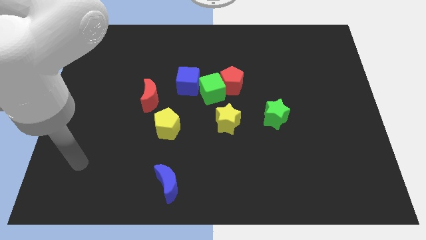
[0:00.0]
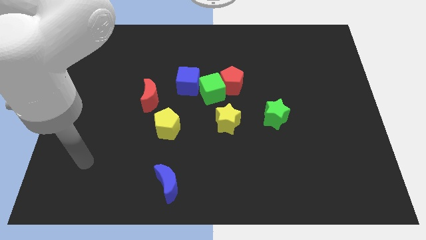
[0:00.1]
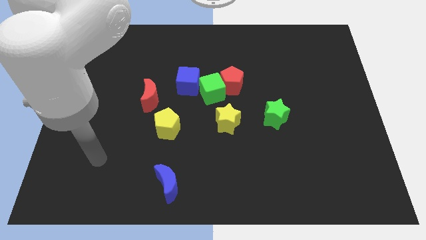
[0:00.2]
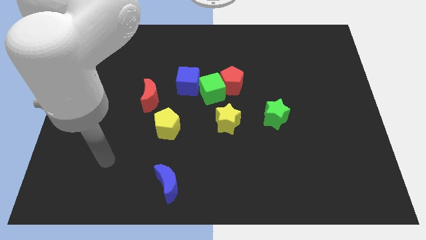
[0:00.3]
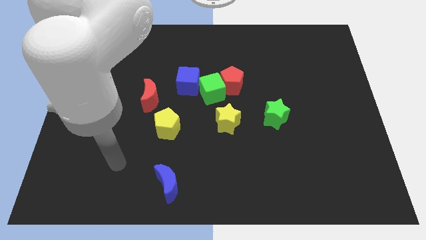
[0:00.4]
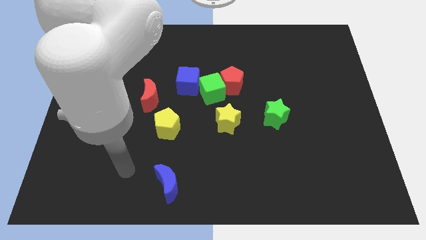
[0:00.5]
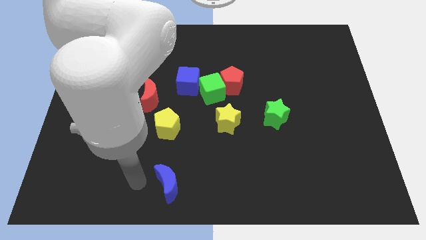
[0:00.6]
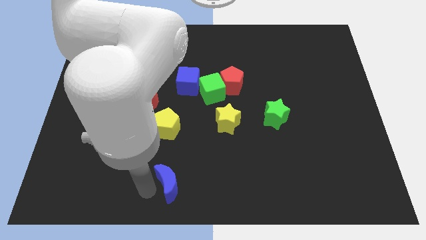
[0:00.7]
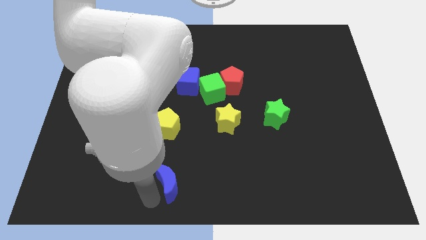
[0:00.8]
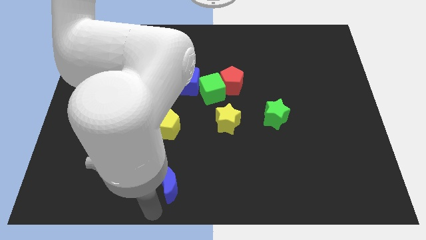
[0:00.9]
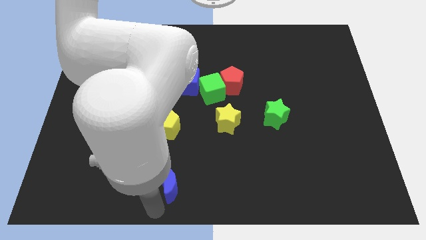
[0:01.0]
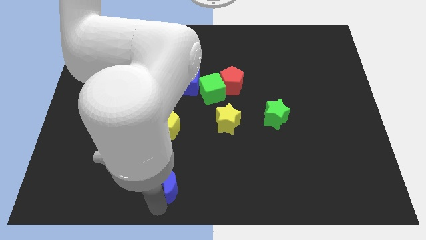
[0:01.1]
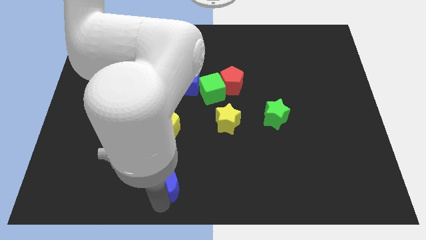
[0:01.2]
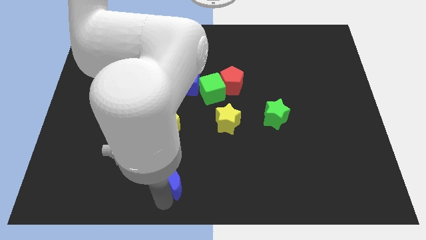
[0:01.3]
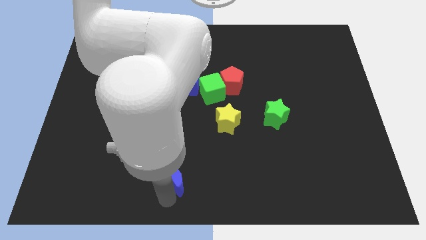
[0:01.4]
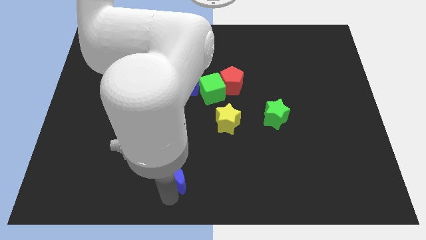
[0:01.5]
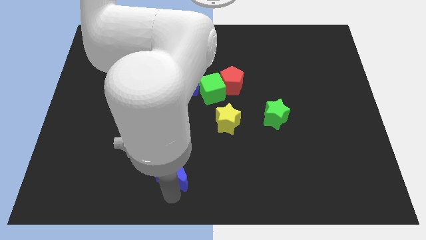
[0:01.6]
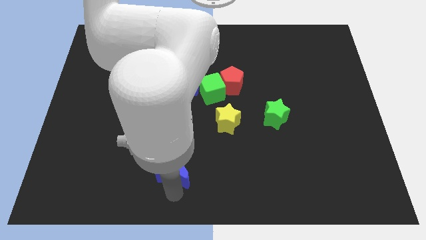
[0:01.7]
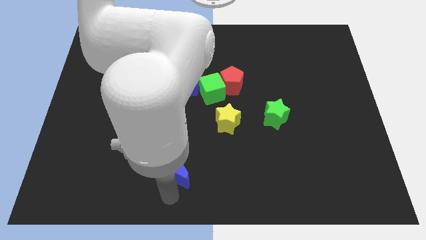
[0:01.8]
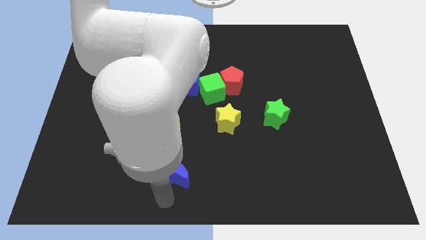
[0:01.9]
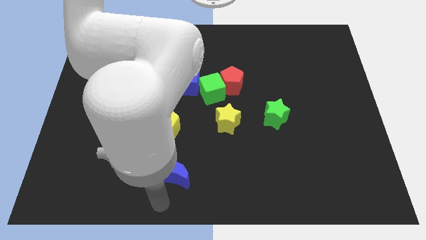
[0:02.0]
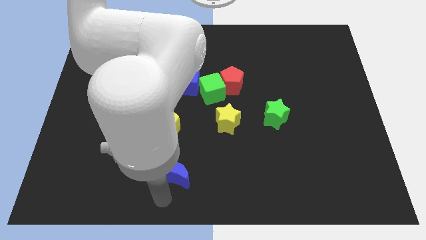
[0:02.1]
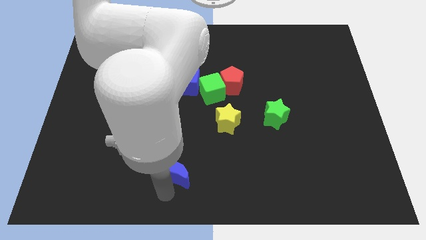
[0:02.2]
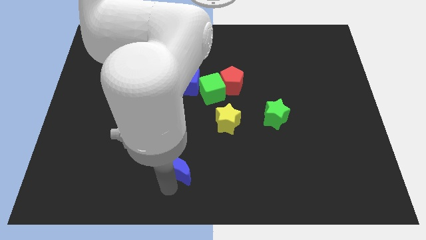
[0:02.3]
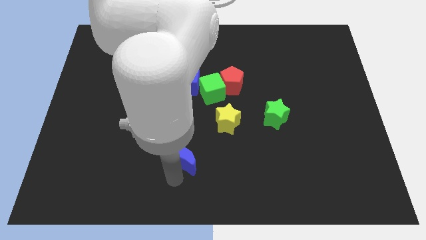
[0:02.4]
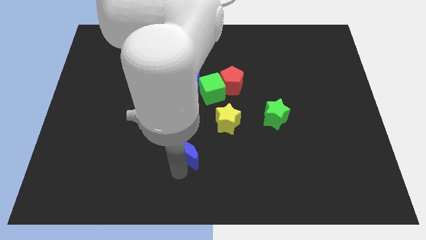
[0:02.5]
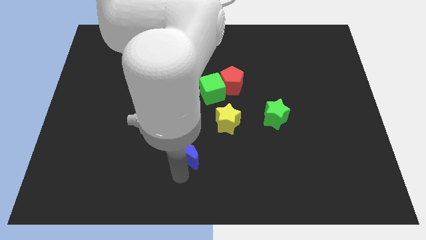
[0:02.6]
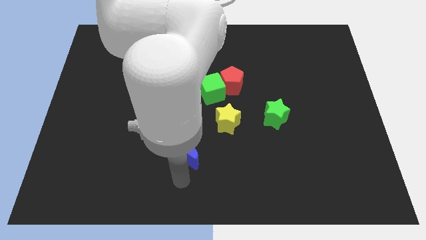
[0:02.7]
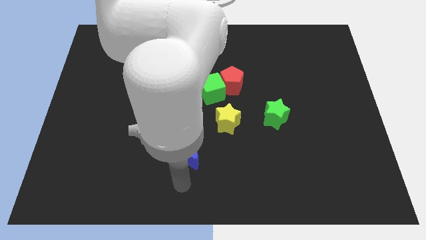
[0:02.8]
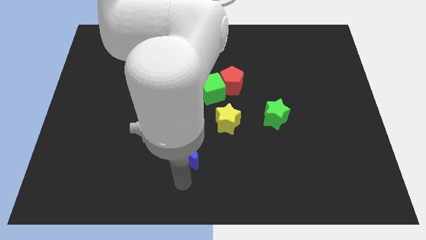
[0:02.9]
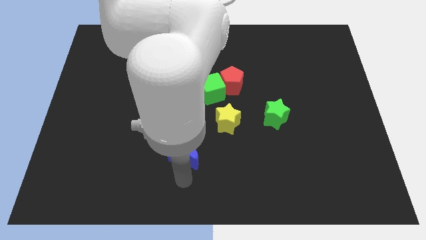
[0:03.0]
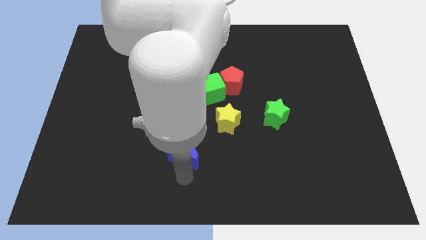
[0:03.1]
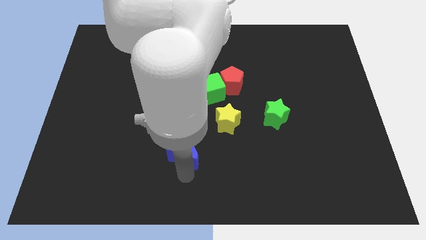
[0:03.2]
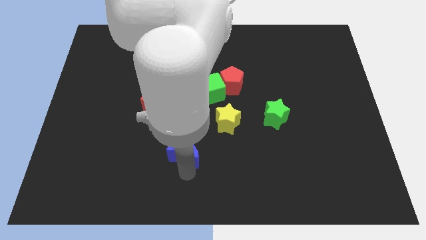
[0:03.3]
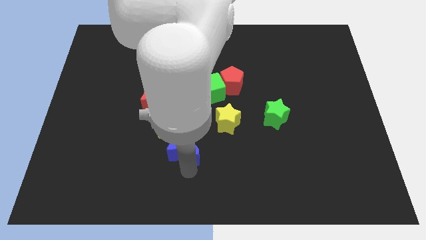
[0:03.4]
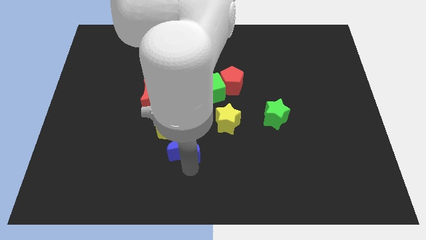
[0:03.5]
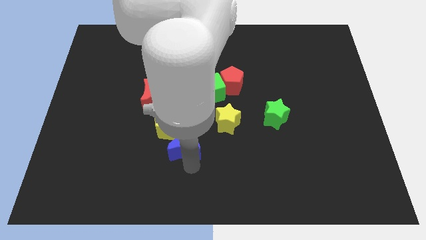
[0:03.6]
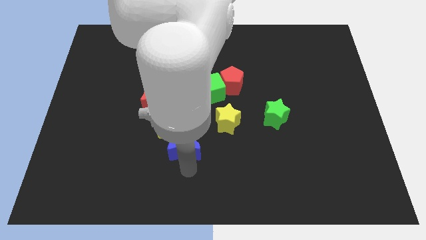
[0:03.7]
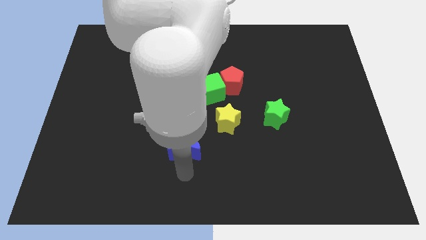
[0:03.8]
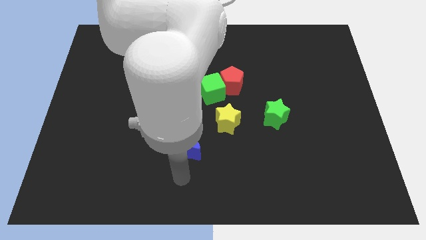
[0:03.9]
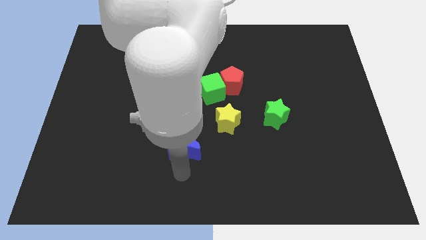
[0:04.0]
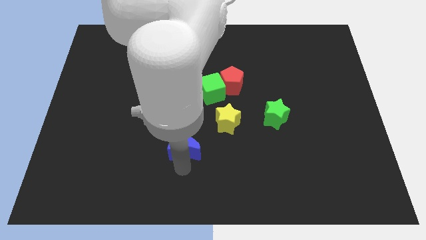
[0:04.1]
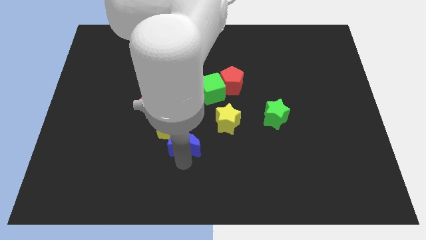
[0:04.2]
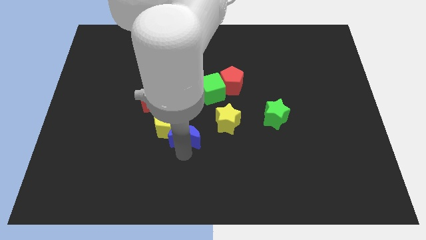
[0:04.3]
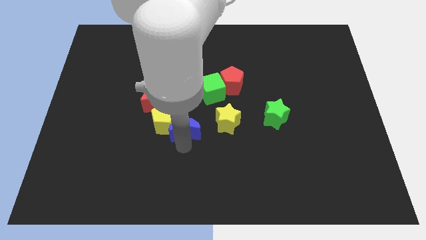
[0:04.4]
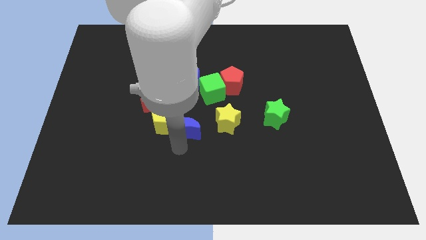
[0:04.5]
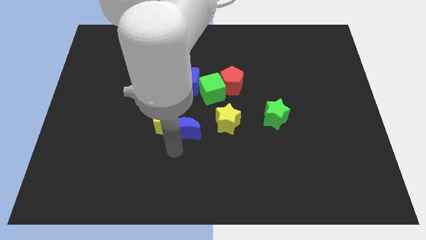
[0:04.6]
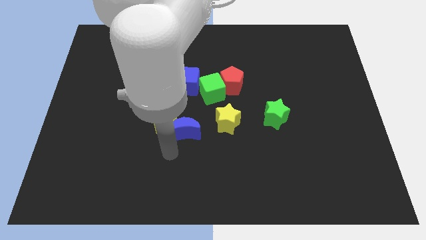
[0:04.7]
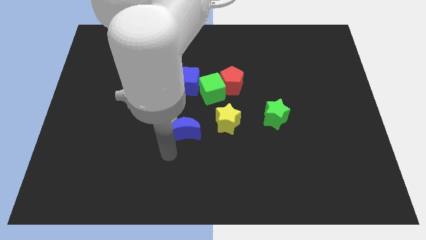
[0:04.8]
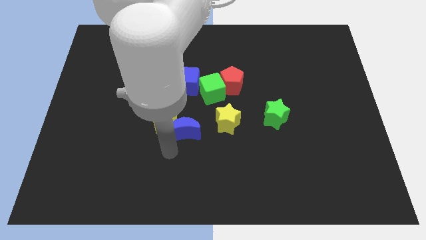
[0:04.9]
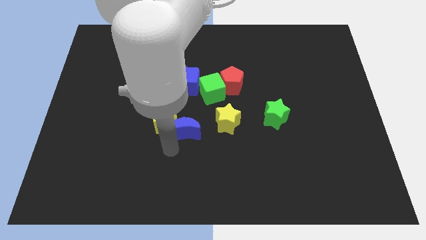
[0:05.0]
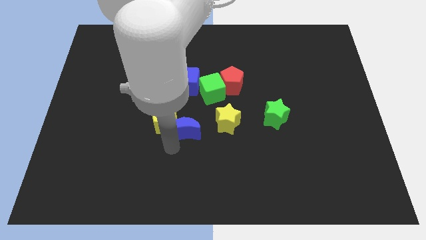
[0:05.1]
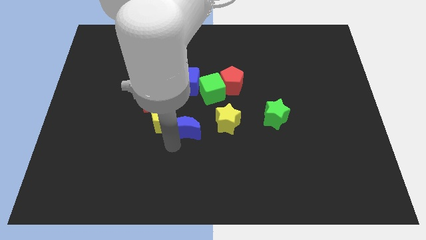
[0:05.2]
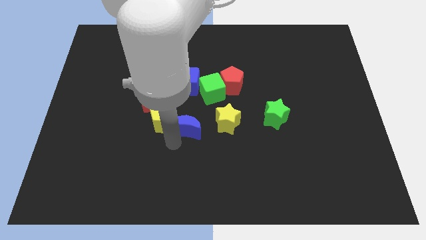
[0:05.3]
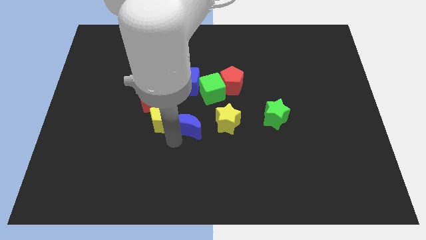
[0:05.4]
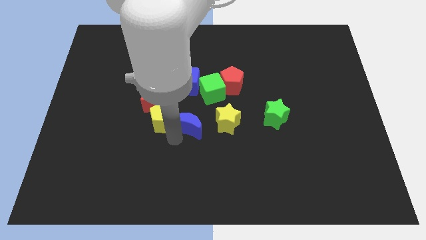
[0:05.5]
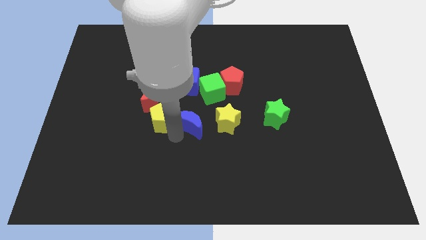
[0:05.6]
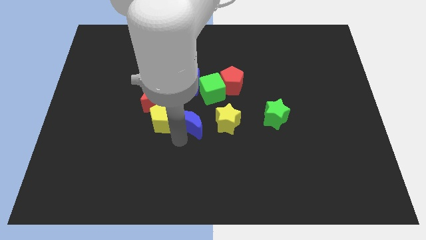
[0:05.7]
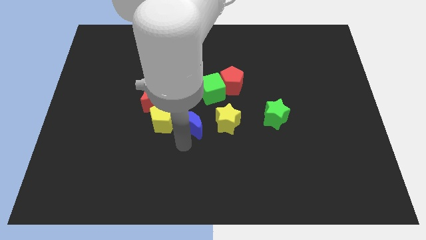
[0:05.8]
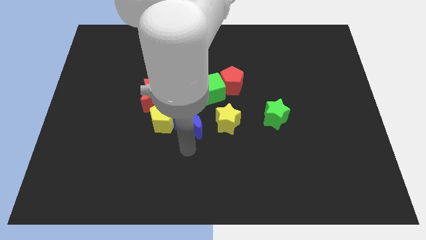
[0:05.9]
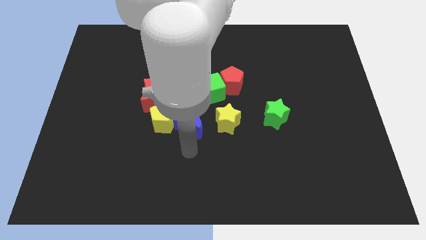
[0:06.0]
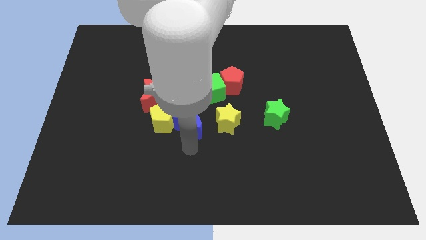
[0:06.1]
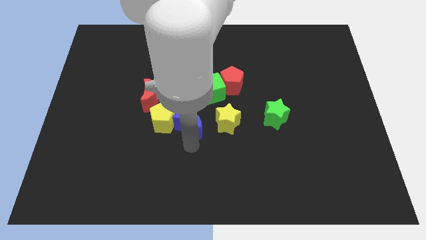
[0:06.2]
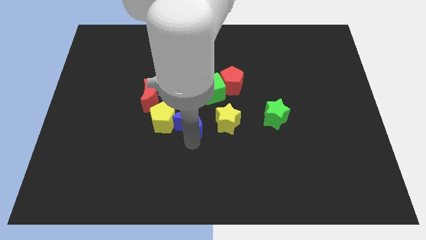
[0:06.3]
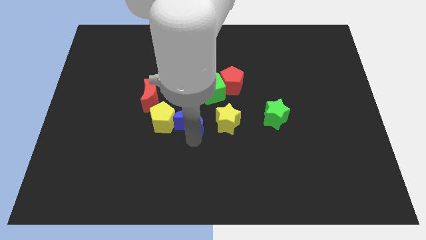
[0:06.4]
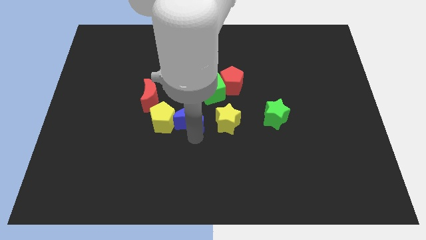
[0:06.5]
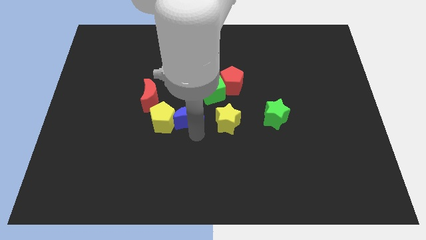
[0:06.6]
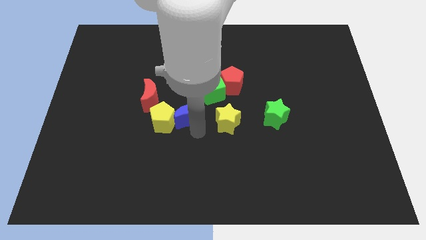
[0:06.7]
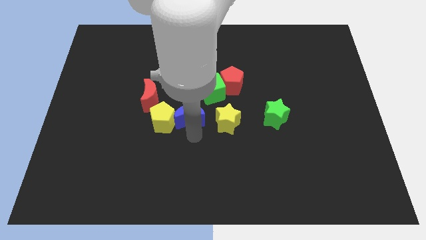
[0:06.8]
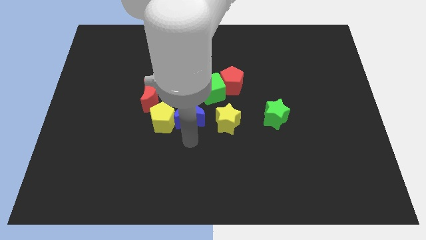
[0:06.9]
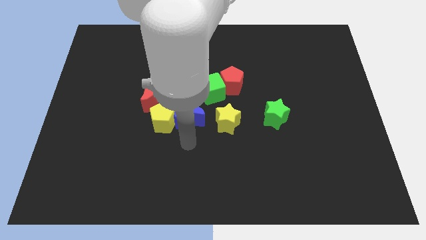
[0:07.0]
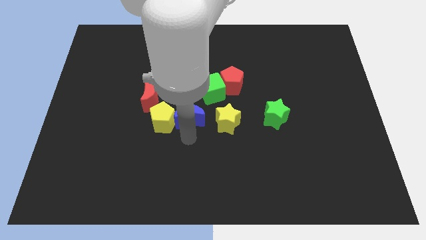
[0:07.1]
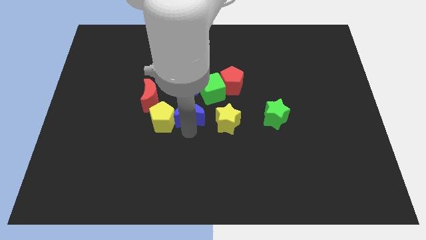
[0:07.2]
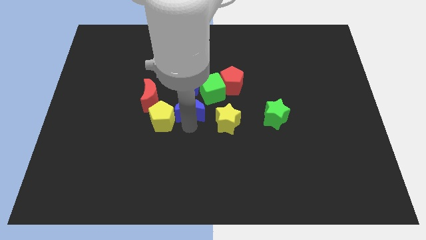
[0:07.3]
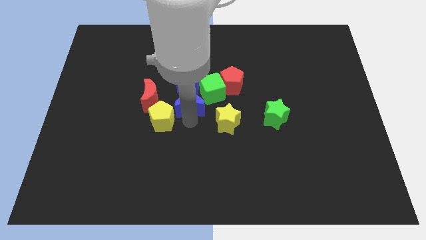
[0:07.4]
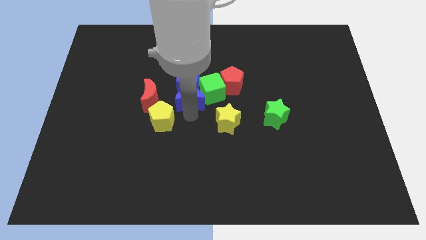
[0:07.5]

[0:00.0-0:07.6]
put the blue moon to the blue cube
